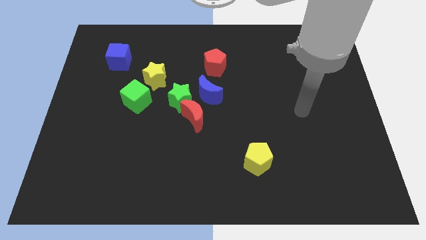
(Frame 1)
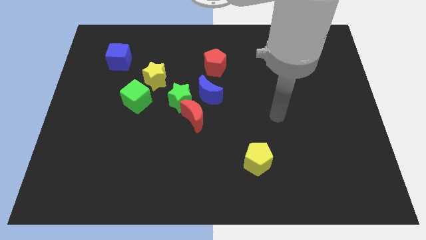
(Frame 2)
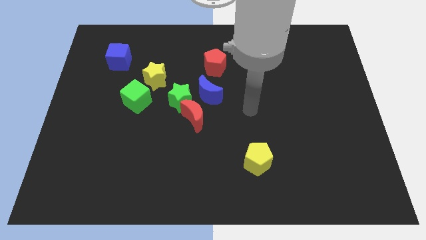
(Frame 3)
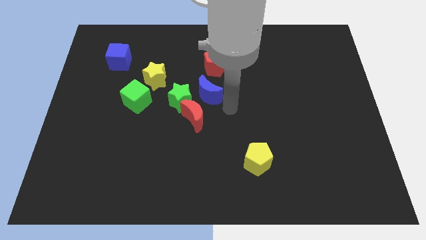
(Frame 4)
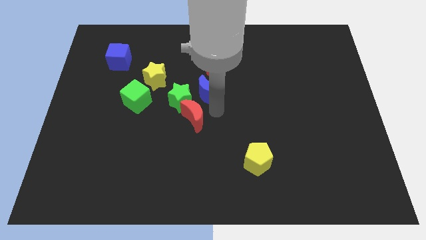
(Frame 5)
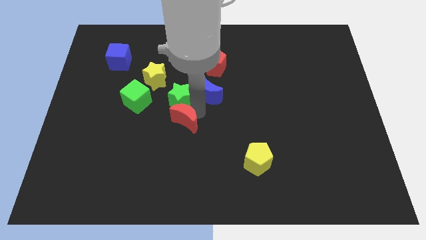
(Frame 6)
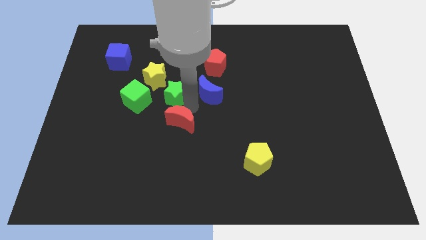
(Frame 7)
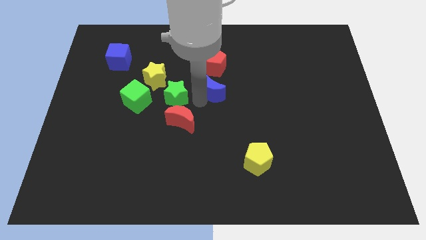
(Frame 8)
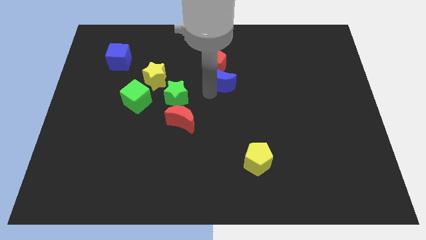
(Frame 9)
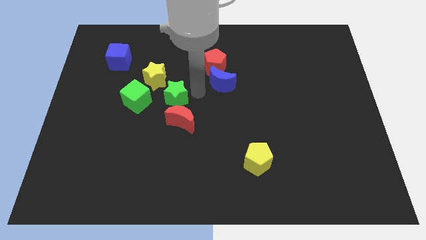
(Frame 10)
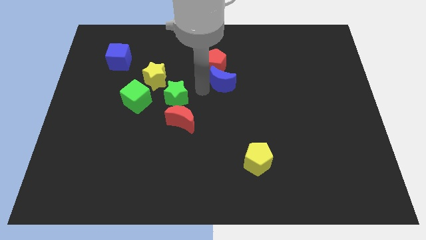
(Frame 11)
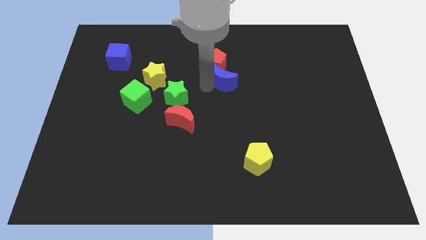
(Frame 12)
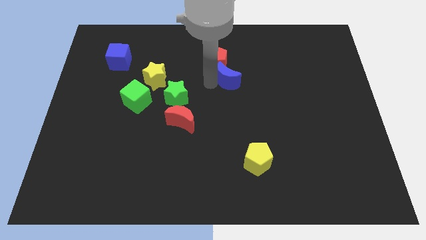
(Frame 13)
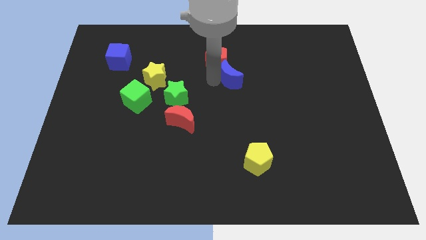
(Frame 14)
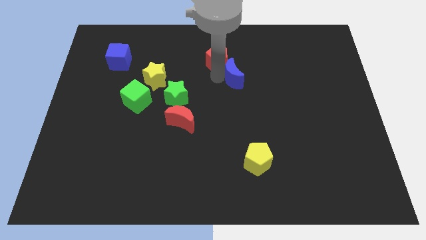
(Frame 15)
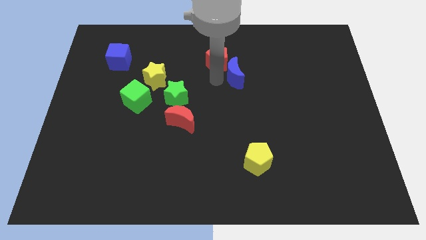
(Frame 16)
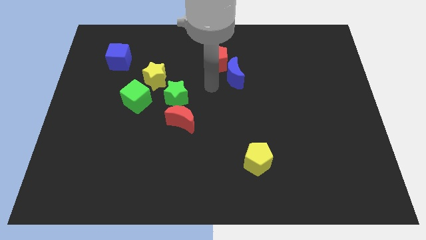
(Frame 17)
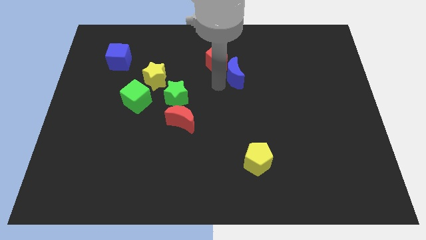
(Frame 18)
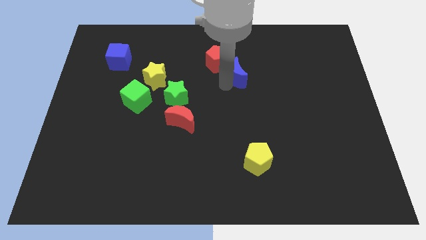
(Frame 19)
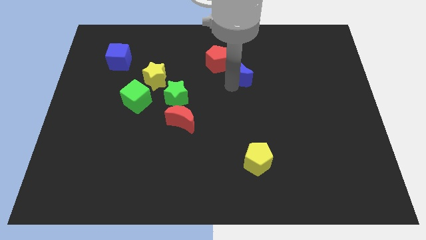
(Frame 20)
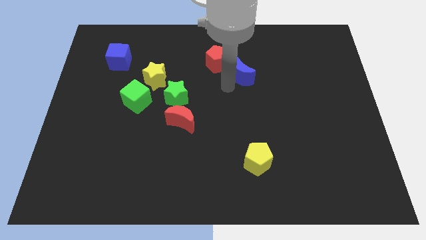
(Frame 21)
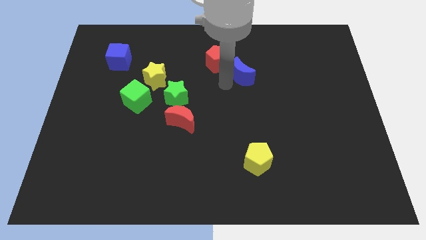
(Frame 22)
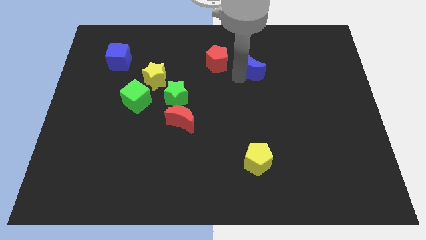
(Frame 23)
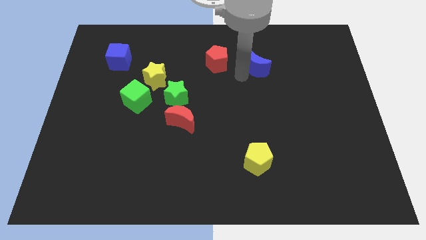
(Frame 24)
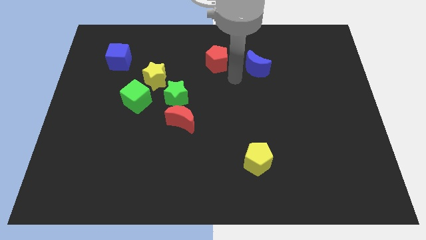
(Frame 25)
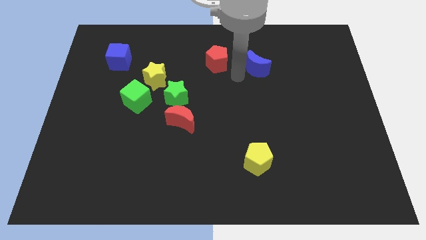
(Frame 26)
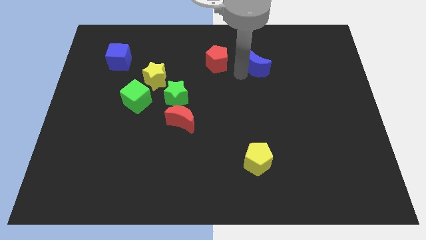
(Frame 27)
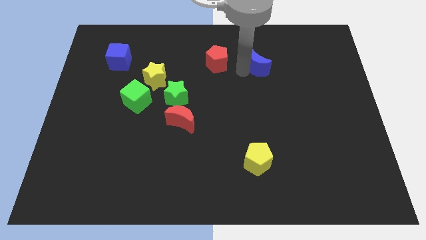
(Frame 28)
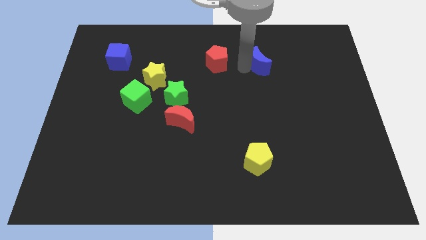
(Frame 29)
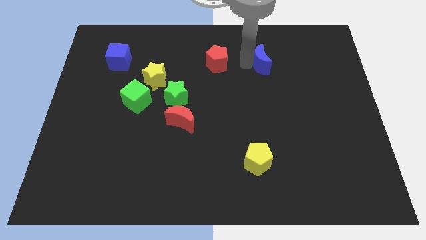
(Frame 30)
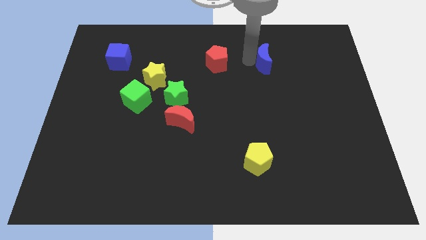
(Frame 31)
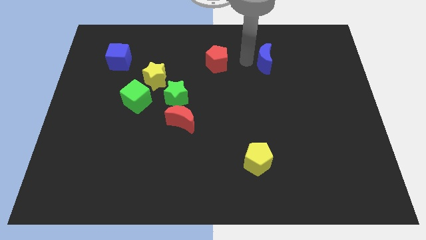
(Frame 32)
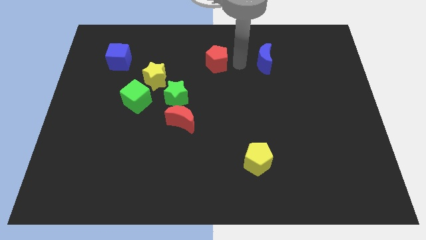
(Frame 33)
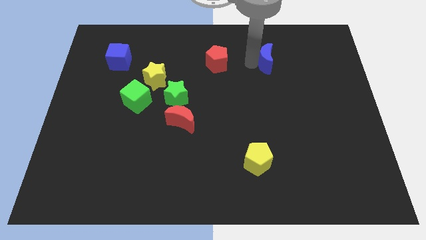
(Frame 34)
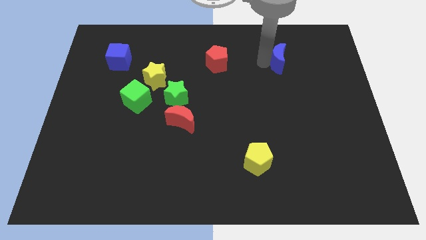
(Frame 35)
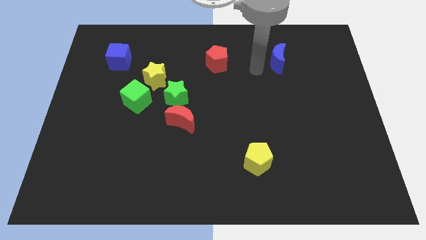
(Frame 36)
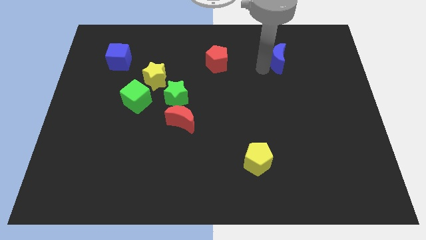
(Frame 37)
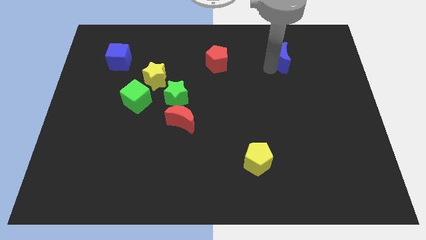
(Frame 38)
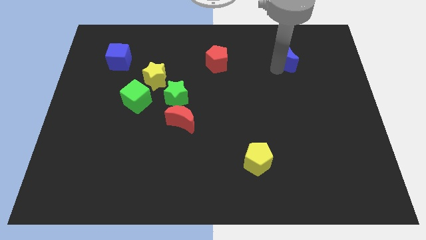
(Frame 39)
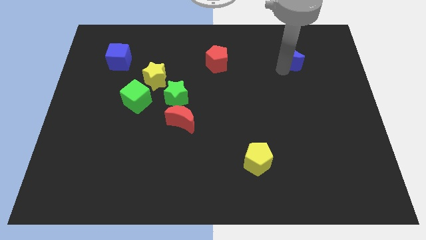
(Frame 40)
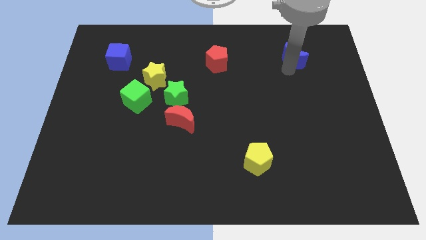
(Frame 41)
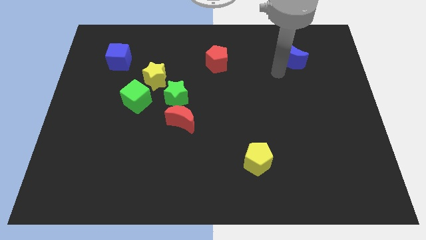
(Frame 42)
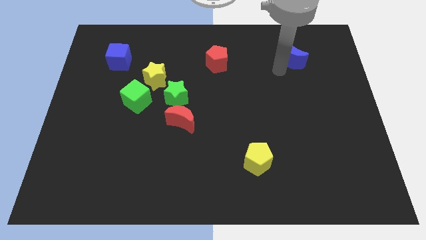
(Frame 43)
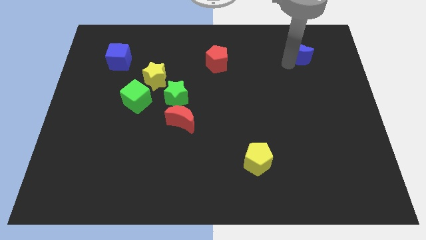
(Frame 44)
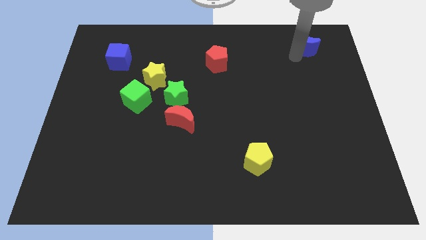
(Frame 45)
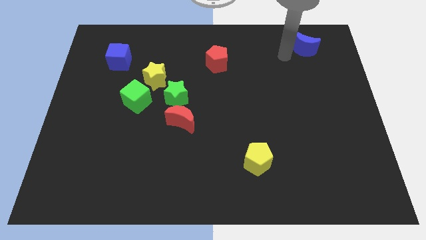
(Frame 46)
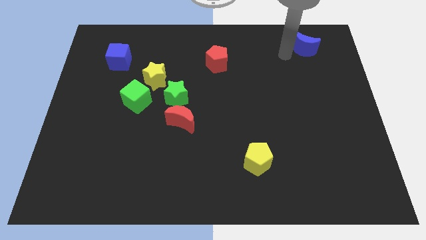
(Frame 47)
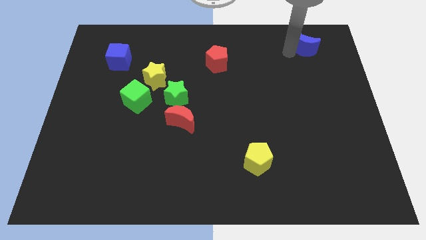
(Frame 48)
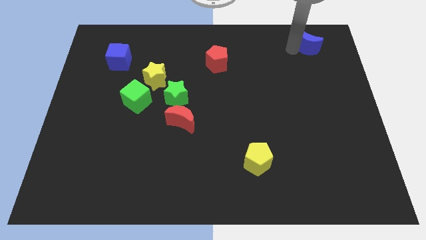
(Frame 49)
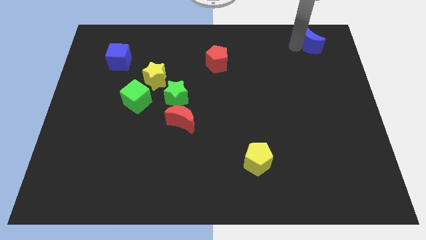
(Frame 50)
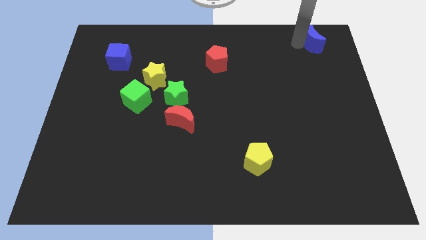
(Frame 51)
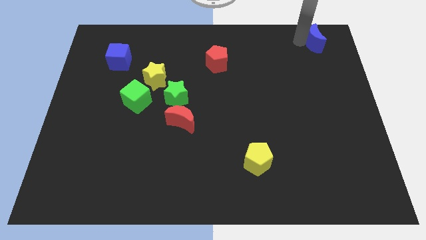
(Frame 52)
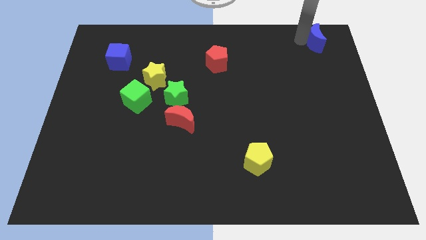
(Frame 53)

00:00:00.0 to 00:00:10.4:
move the blue moon to the top right

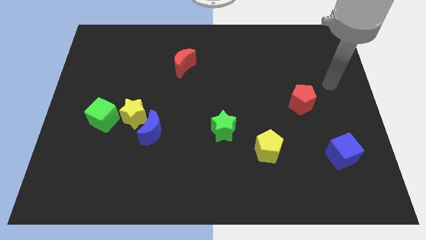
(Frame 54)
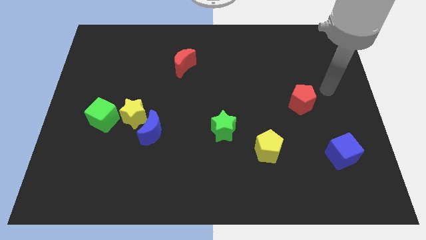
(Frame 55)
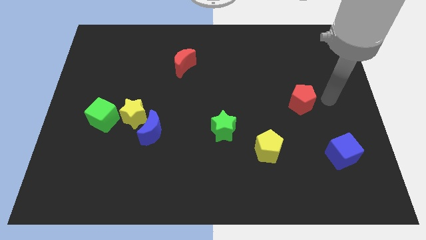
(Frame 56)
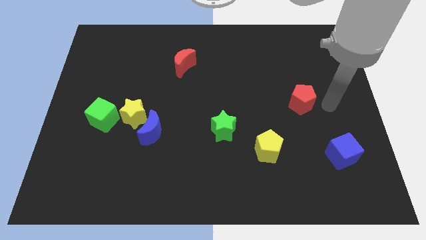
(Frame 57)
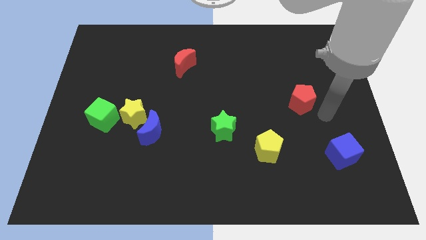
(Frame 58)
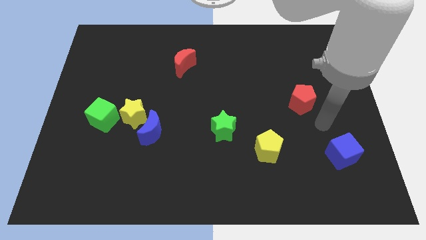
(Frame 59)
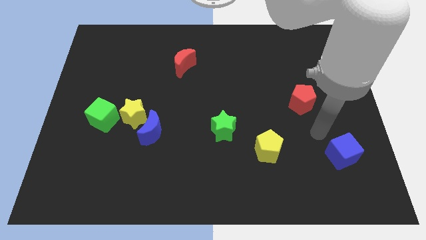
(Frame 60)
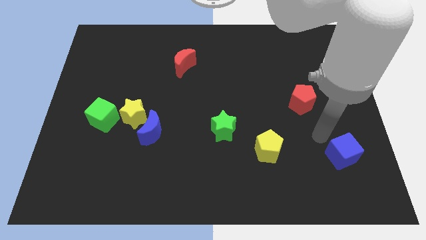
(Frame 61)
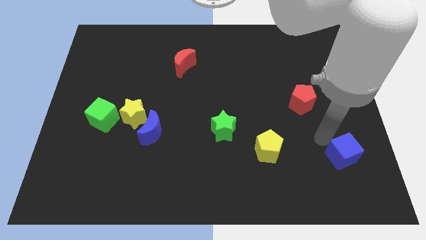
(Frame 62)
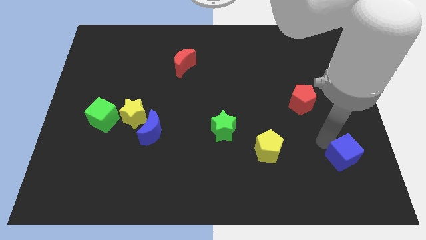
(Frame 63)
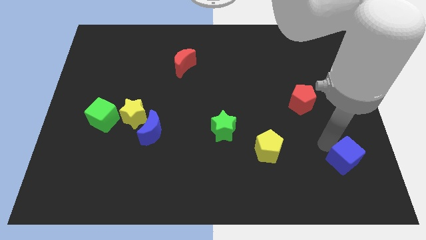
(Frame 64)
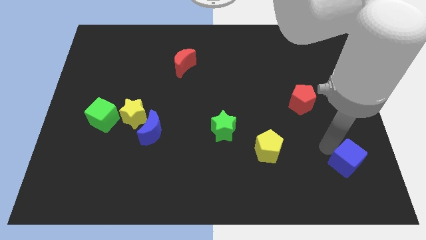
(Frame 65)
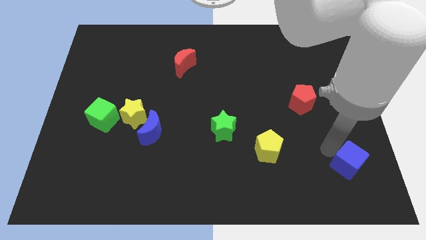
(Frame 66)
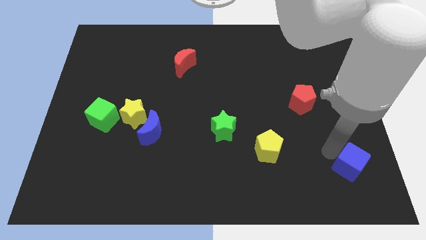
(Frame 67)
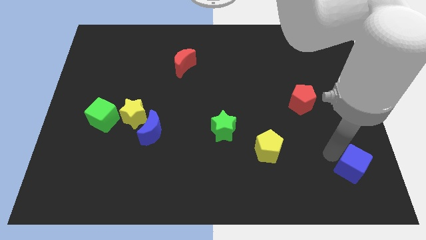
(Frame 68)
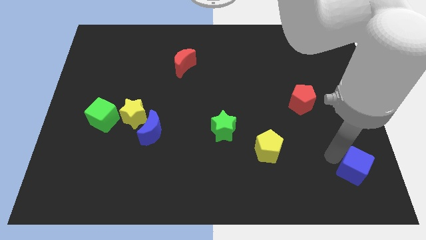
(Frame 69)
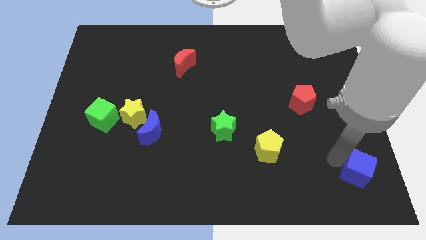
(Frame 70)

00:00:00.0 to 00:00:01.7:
put the blue cube to the lower right corner
